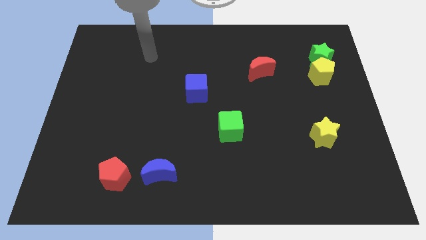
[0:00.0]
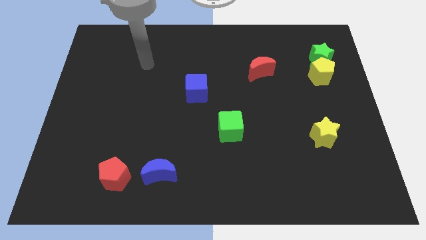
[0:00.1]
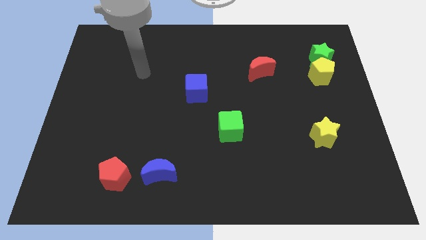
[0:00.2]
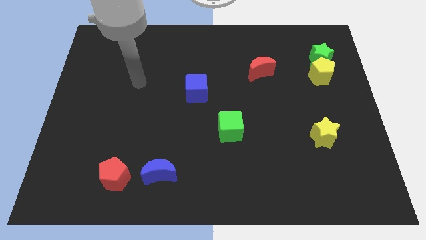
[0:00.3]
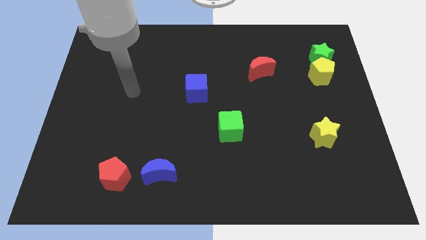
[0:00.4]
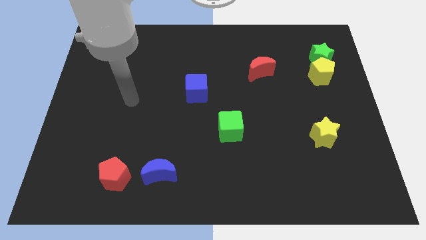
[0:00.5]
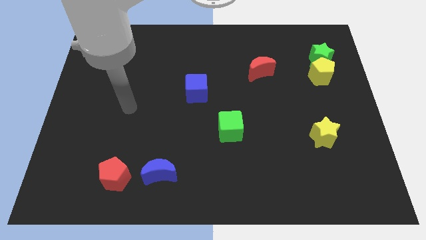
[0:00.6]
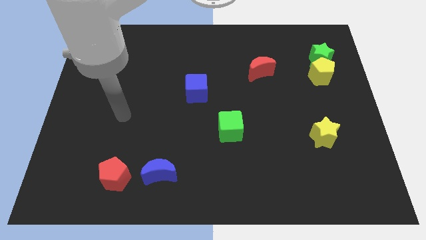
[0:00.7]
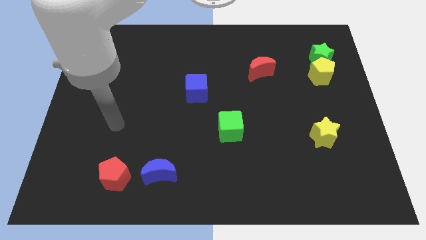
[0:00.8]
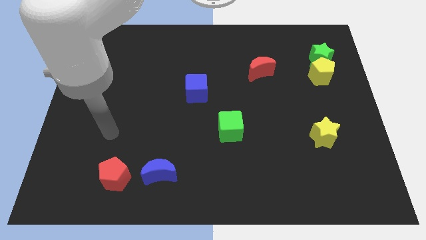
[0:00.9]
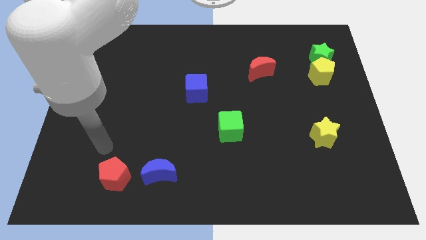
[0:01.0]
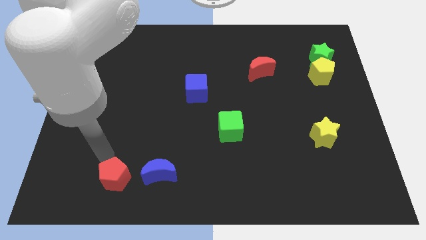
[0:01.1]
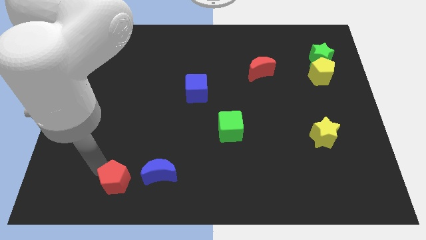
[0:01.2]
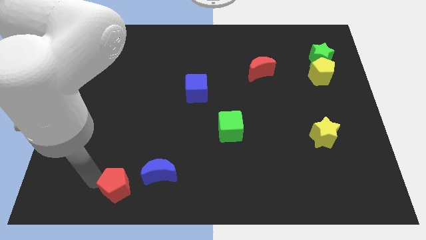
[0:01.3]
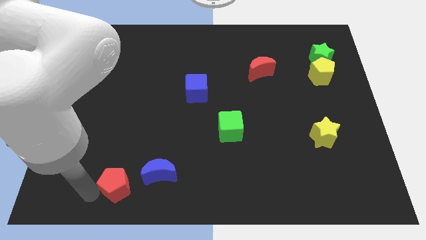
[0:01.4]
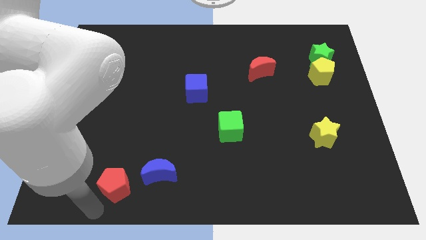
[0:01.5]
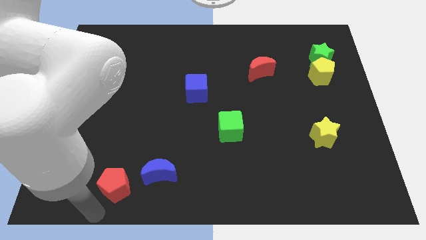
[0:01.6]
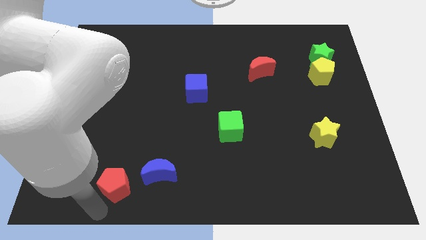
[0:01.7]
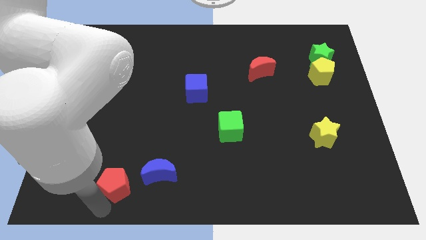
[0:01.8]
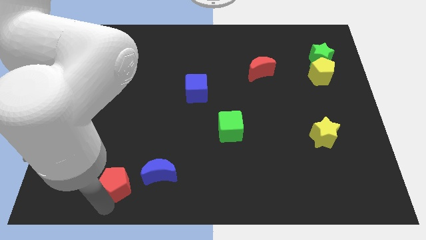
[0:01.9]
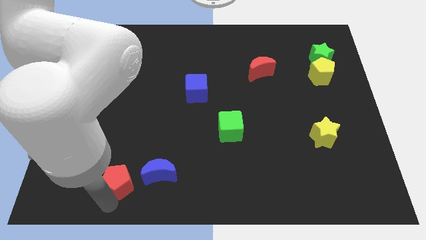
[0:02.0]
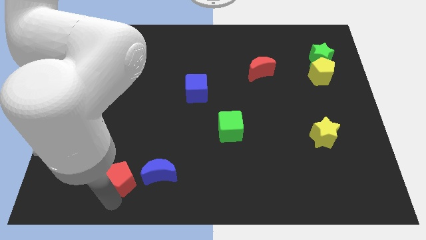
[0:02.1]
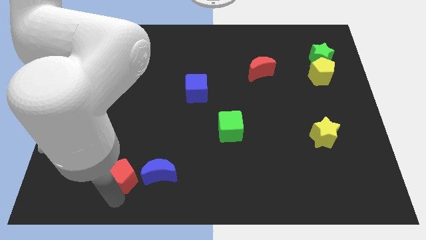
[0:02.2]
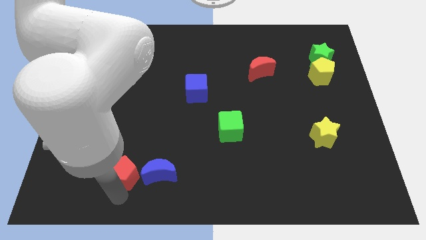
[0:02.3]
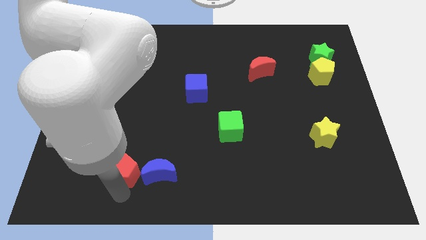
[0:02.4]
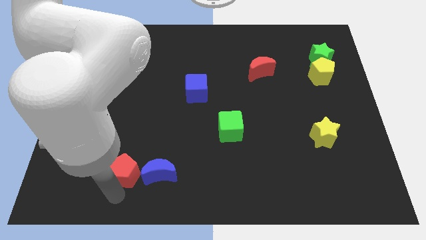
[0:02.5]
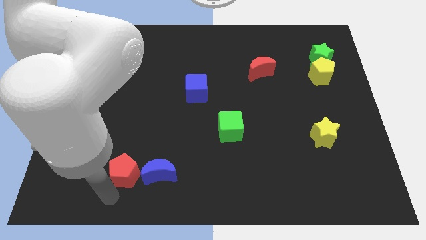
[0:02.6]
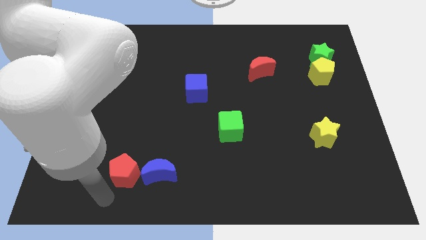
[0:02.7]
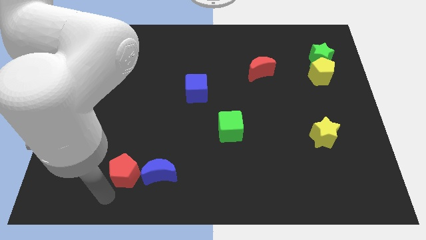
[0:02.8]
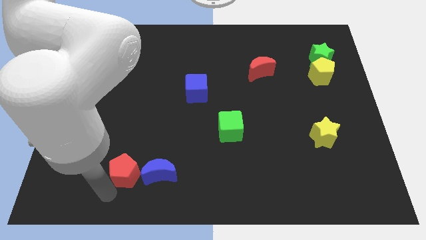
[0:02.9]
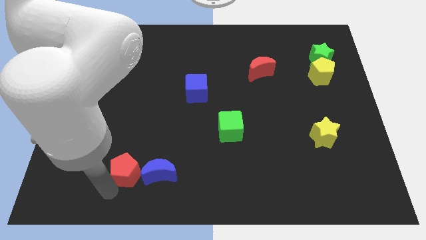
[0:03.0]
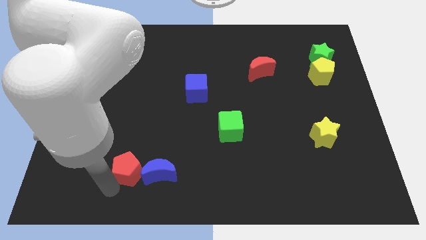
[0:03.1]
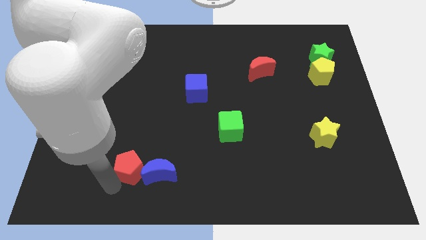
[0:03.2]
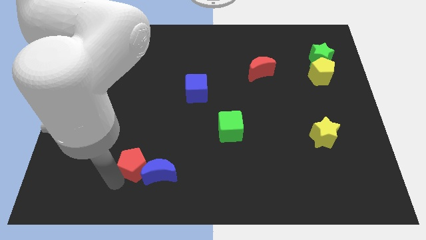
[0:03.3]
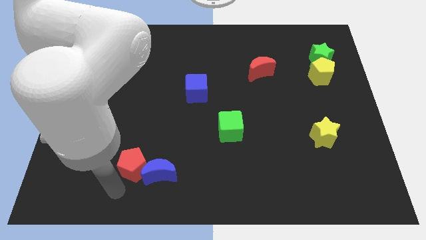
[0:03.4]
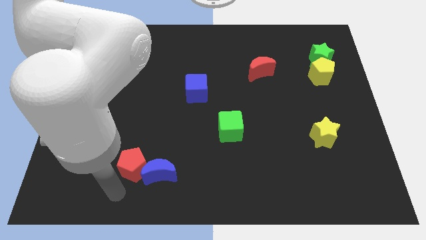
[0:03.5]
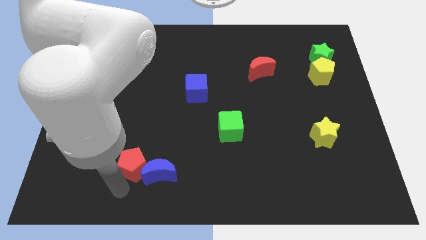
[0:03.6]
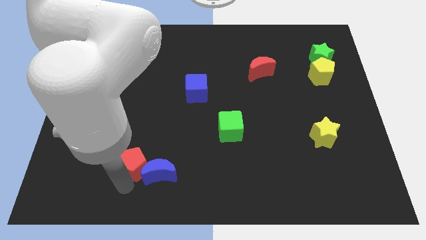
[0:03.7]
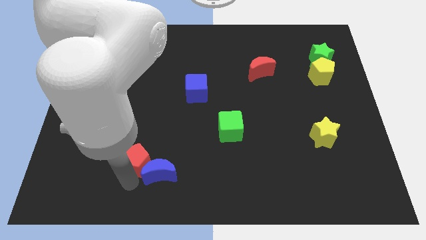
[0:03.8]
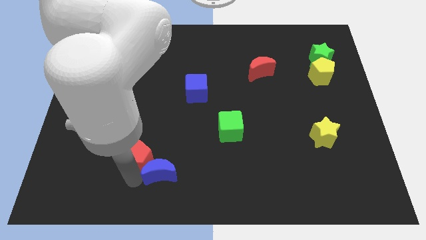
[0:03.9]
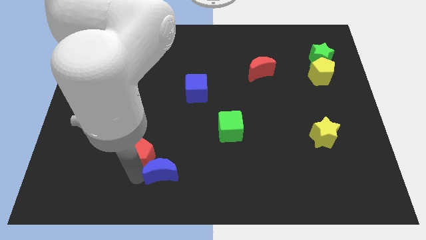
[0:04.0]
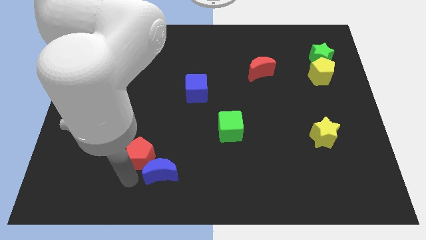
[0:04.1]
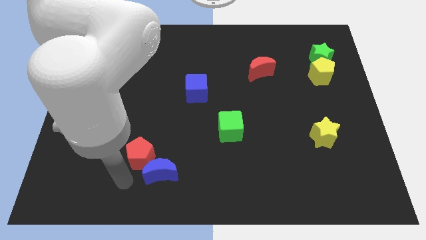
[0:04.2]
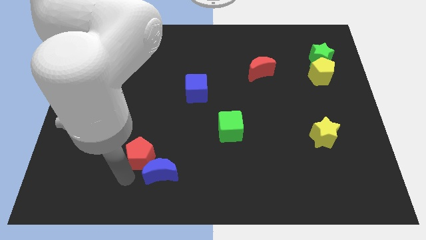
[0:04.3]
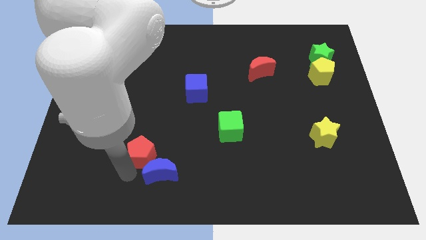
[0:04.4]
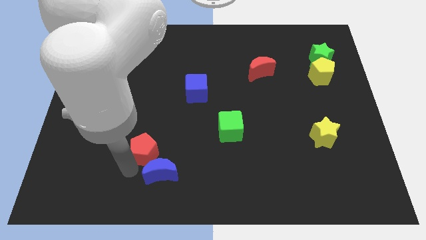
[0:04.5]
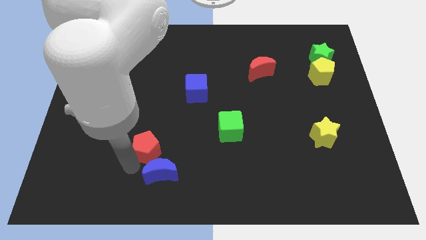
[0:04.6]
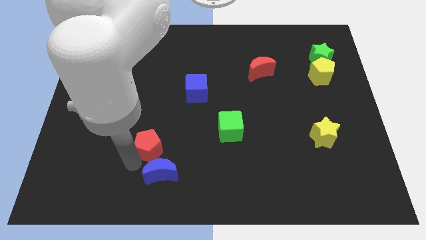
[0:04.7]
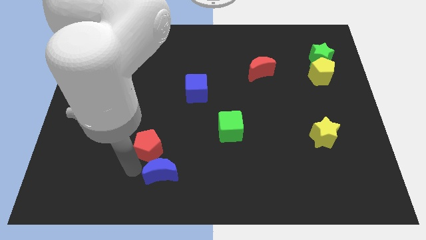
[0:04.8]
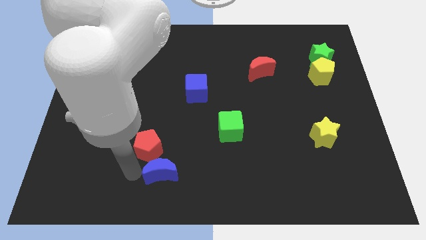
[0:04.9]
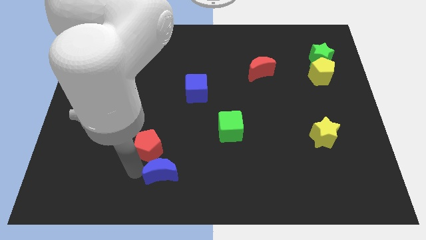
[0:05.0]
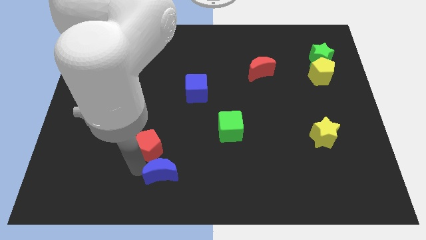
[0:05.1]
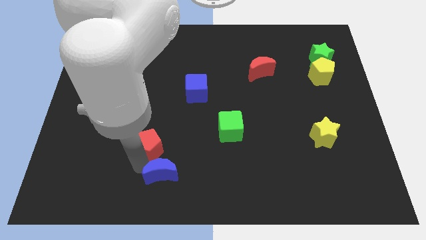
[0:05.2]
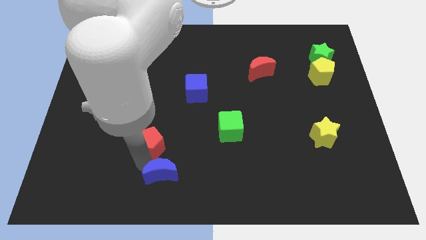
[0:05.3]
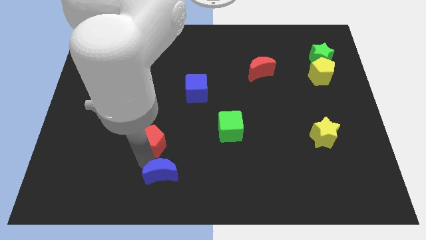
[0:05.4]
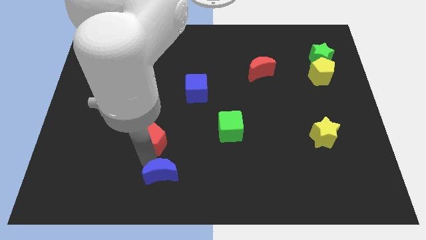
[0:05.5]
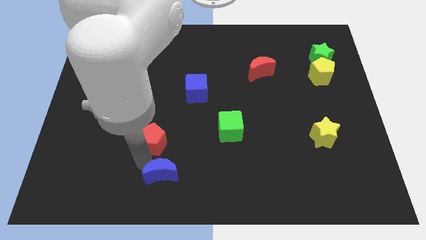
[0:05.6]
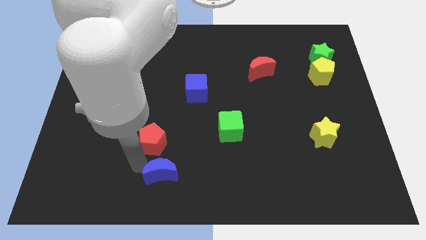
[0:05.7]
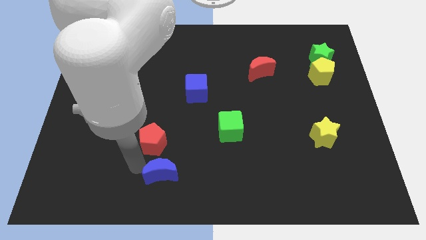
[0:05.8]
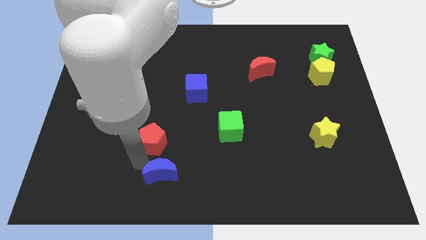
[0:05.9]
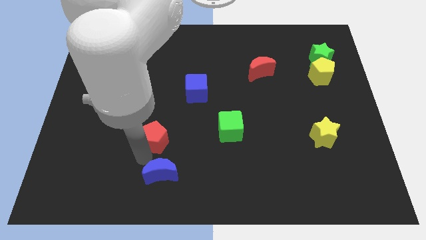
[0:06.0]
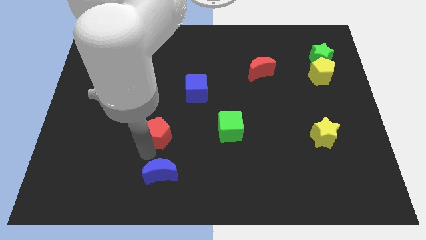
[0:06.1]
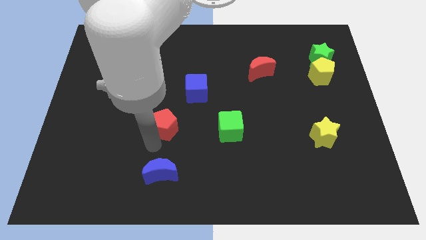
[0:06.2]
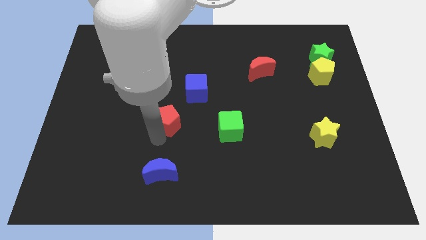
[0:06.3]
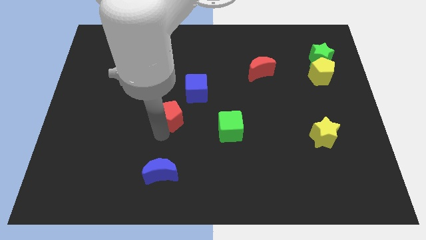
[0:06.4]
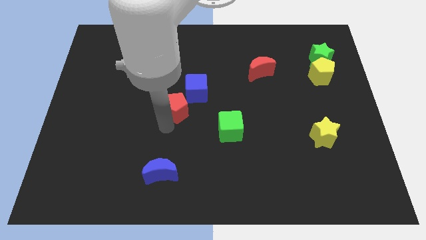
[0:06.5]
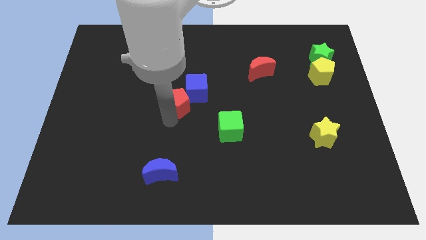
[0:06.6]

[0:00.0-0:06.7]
move the red pentagon close to the blue cube

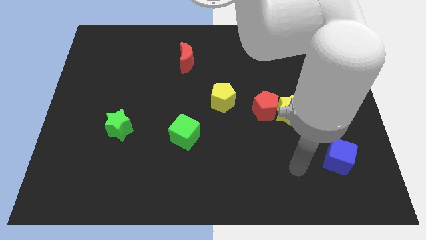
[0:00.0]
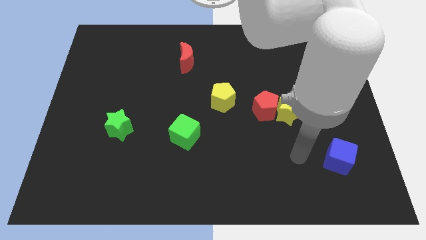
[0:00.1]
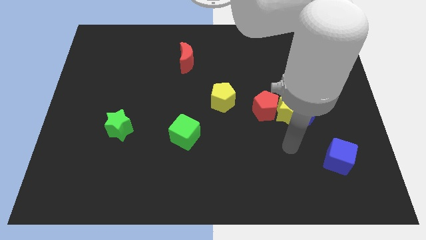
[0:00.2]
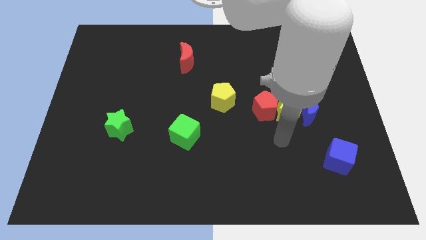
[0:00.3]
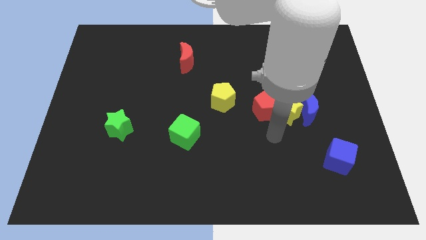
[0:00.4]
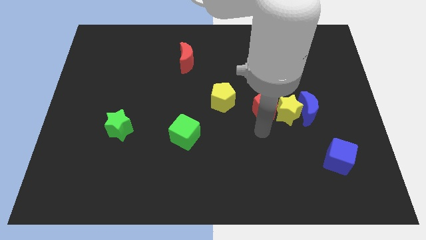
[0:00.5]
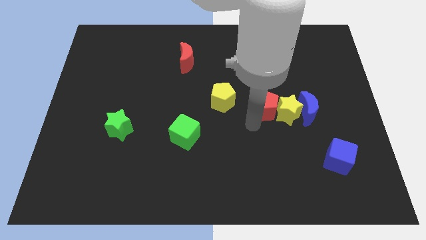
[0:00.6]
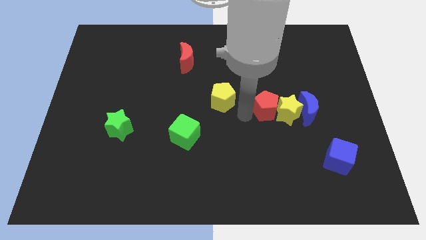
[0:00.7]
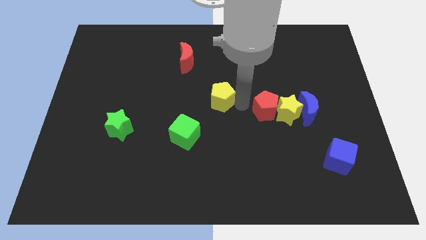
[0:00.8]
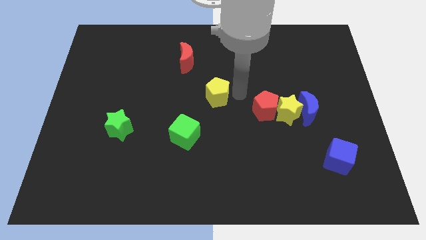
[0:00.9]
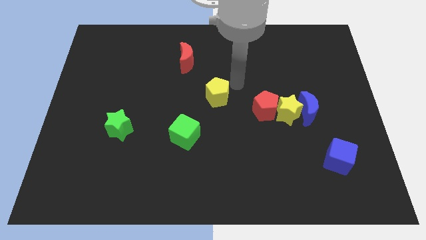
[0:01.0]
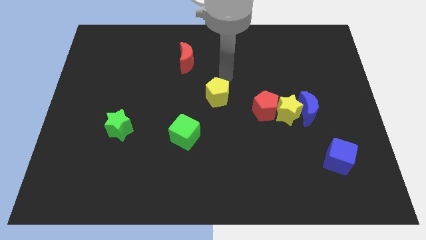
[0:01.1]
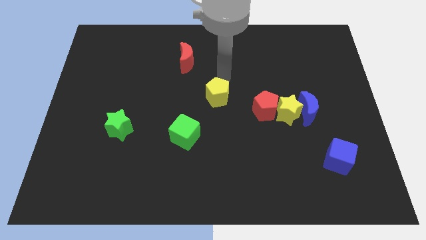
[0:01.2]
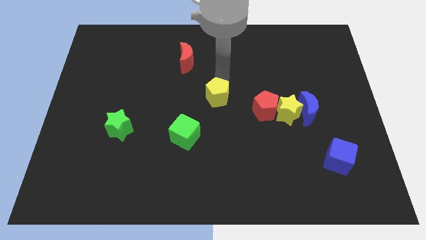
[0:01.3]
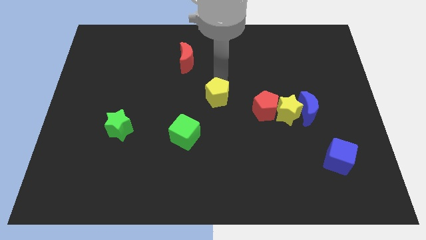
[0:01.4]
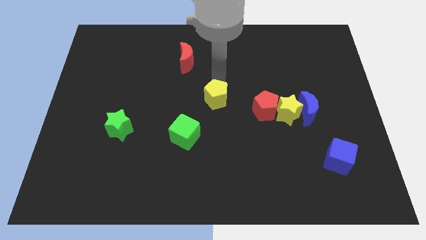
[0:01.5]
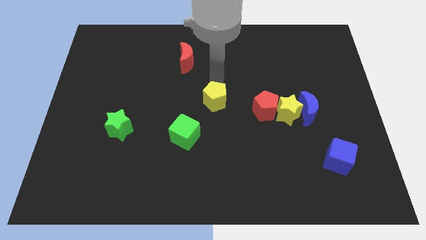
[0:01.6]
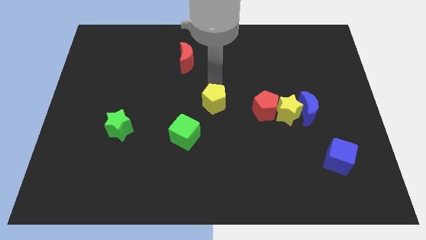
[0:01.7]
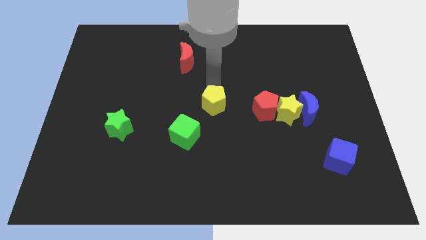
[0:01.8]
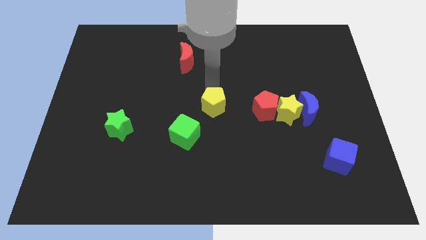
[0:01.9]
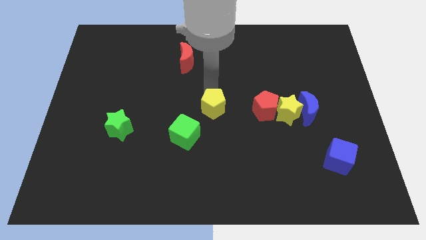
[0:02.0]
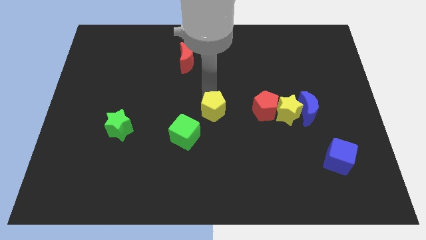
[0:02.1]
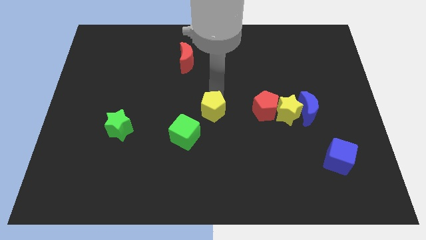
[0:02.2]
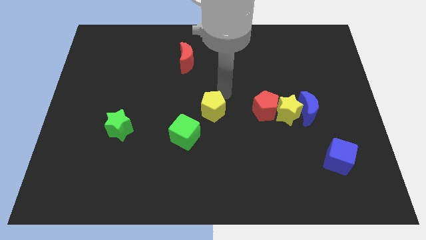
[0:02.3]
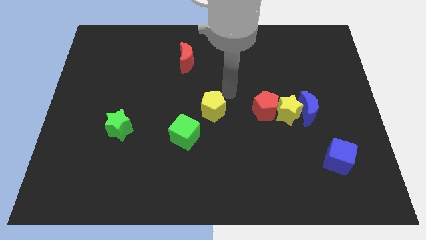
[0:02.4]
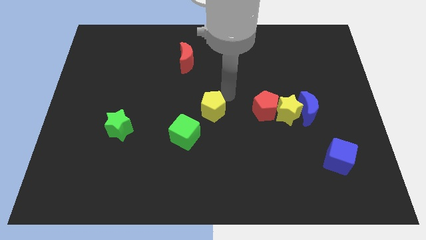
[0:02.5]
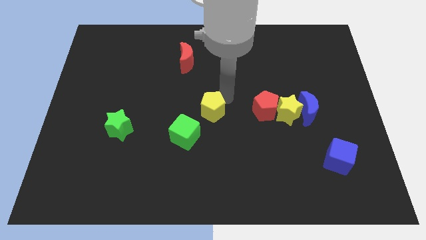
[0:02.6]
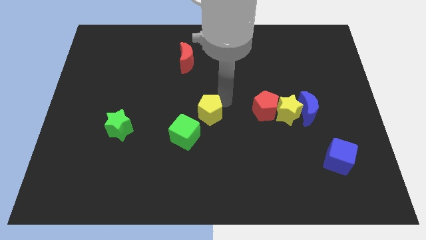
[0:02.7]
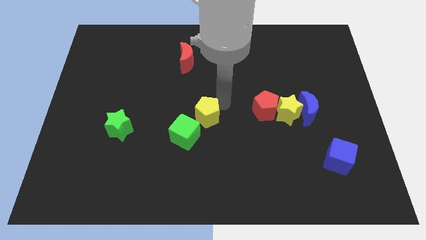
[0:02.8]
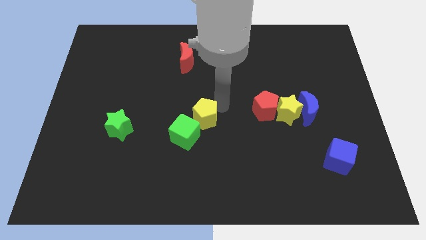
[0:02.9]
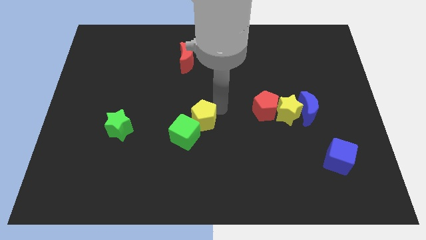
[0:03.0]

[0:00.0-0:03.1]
move the yellow pentagon close to the green cube
